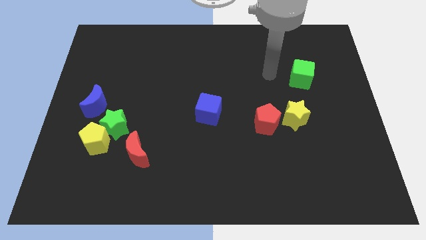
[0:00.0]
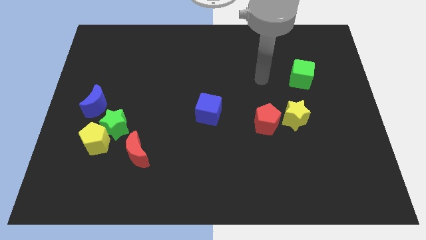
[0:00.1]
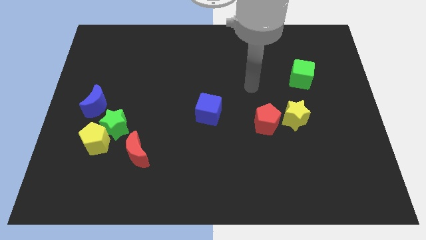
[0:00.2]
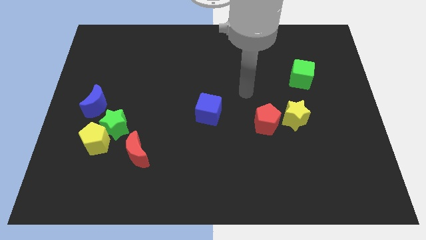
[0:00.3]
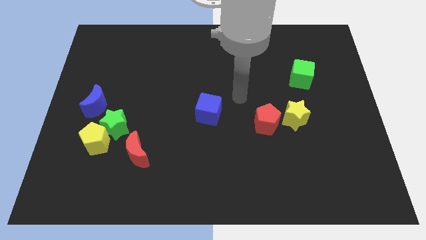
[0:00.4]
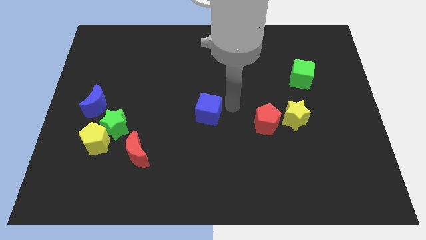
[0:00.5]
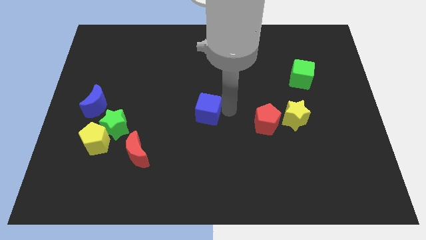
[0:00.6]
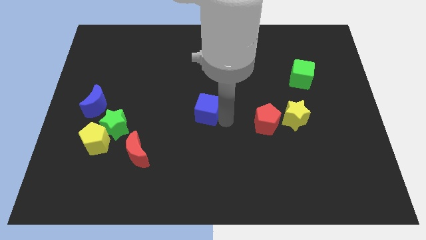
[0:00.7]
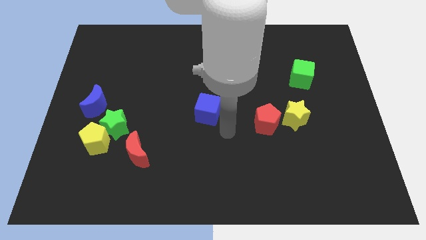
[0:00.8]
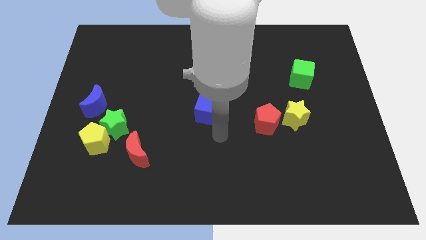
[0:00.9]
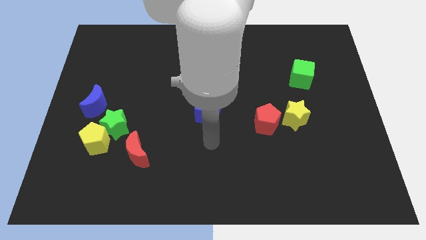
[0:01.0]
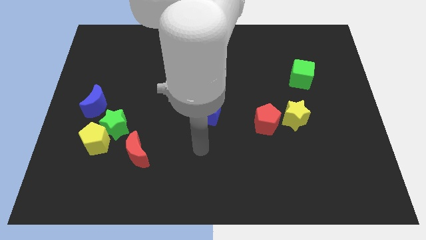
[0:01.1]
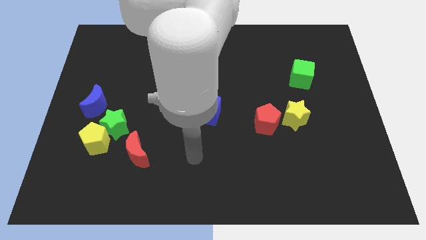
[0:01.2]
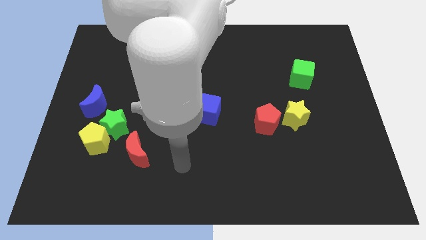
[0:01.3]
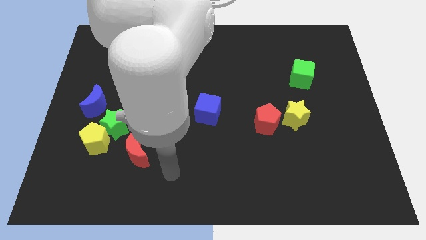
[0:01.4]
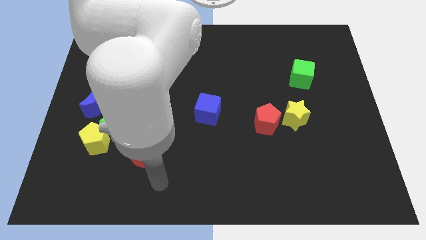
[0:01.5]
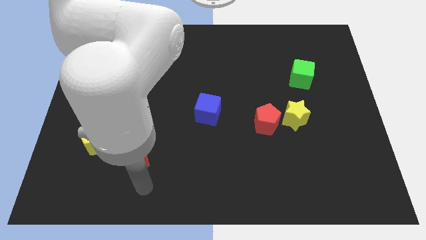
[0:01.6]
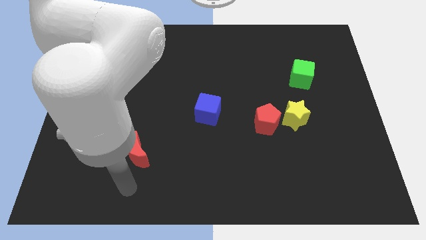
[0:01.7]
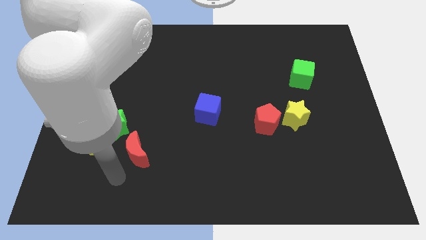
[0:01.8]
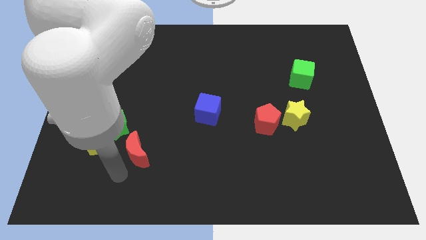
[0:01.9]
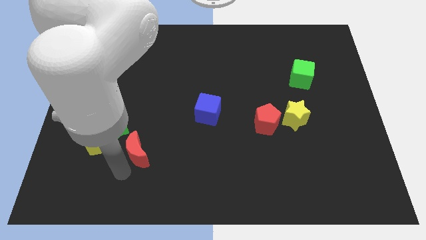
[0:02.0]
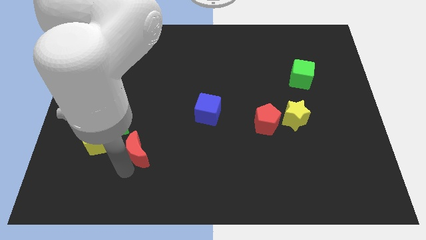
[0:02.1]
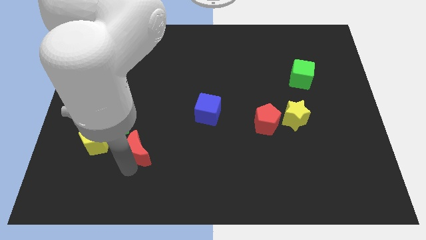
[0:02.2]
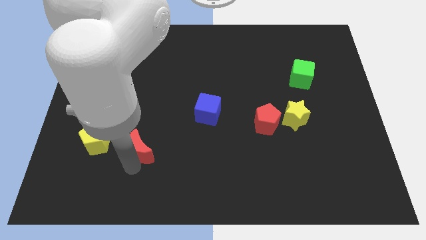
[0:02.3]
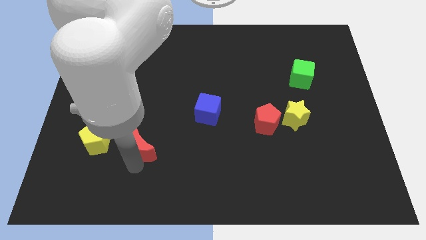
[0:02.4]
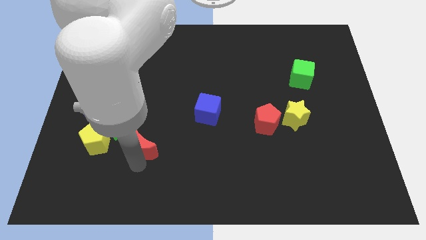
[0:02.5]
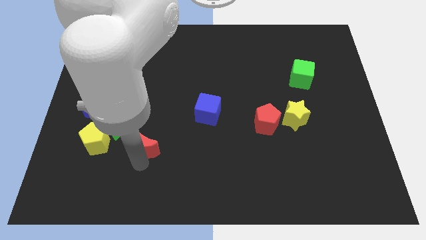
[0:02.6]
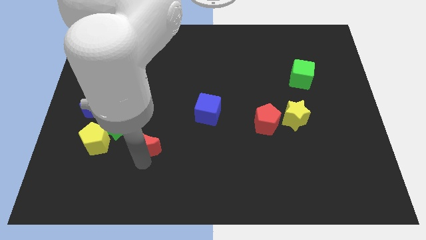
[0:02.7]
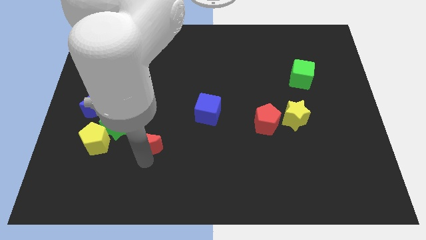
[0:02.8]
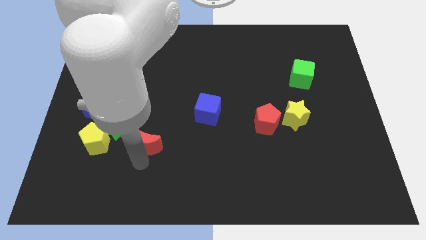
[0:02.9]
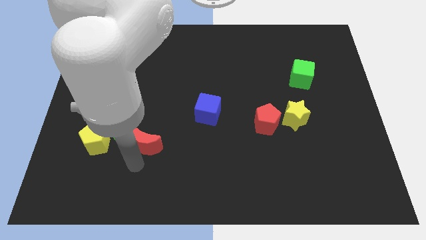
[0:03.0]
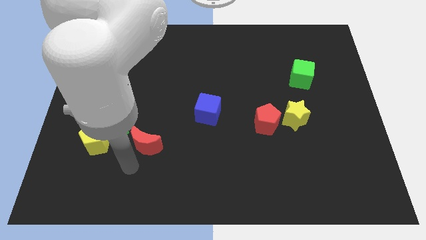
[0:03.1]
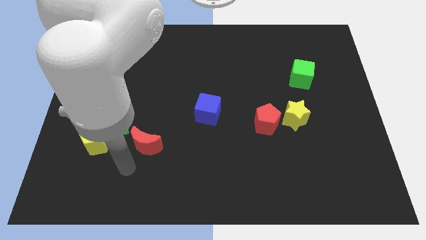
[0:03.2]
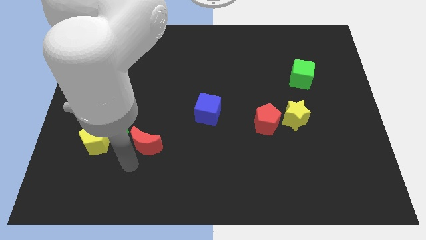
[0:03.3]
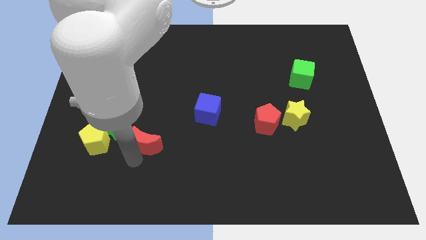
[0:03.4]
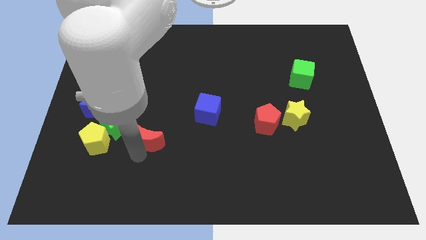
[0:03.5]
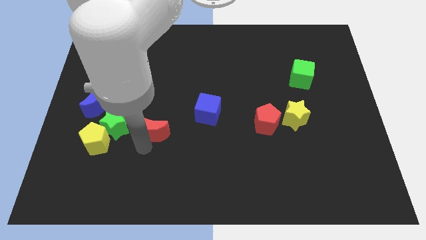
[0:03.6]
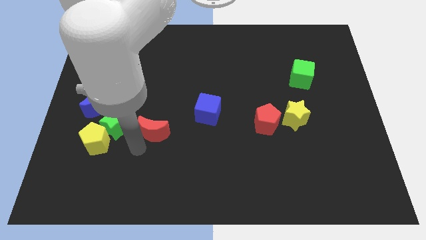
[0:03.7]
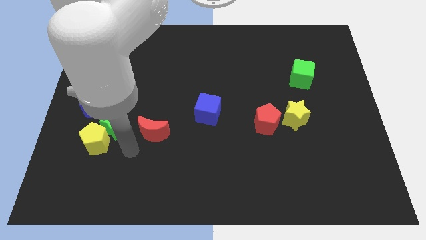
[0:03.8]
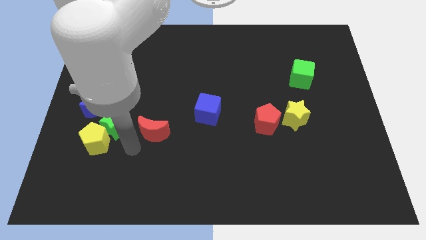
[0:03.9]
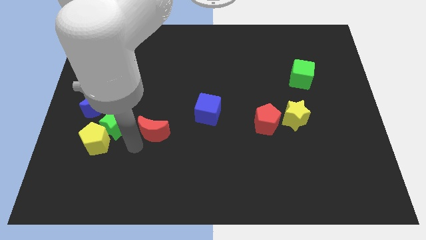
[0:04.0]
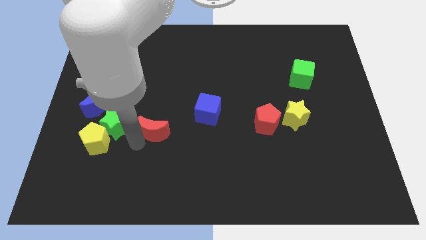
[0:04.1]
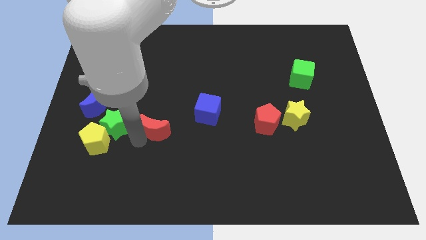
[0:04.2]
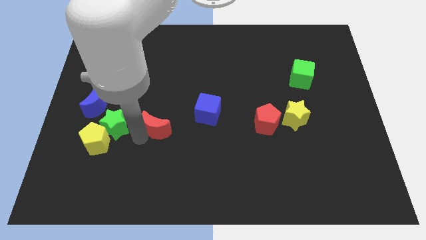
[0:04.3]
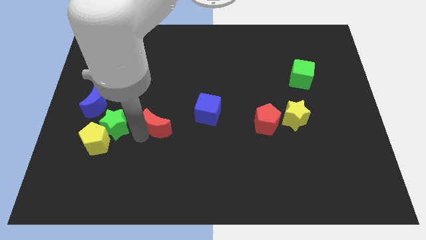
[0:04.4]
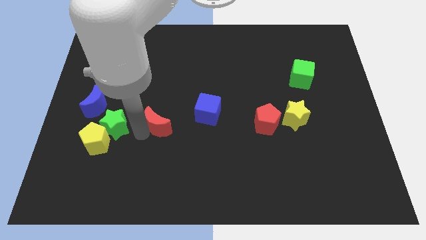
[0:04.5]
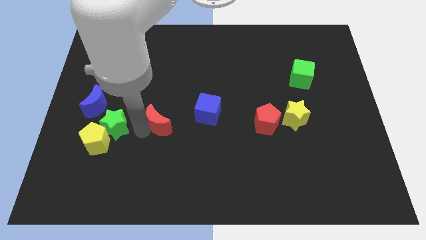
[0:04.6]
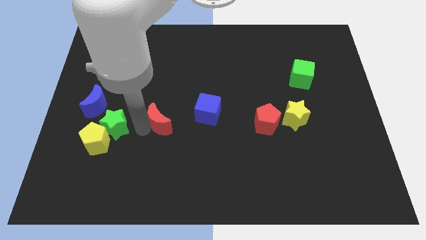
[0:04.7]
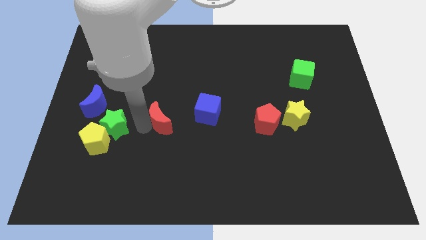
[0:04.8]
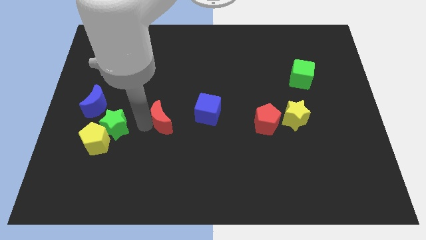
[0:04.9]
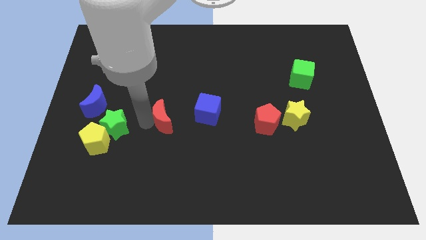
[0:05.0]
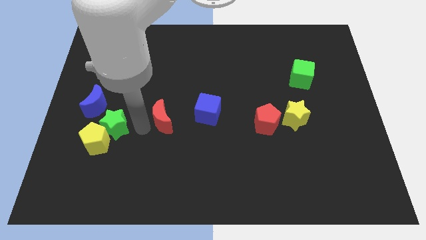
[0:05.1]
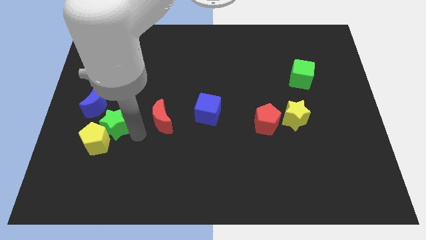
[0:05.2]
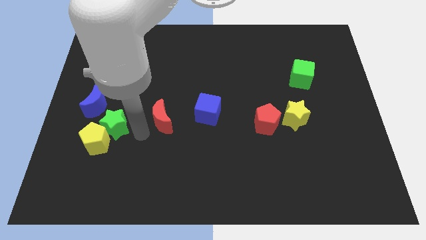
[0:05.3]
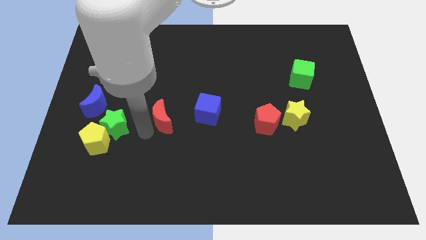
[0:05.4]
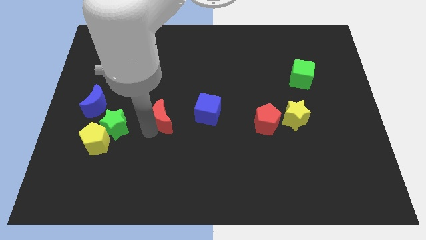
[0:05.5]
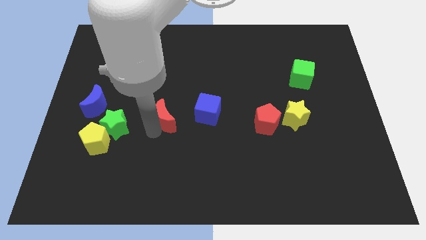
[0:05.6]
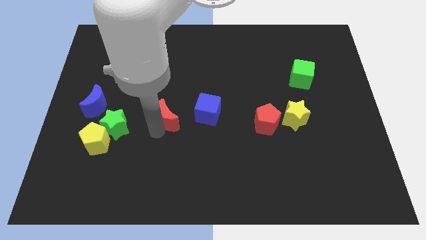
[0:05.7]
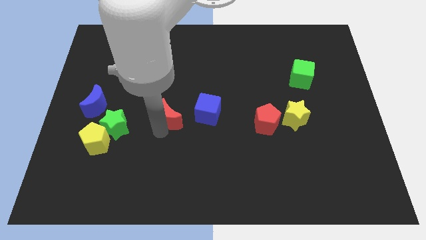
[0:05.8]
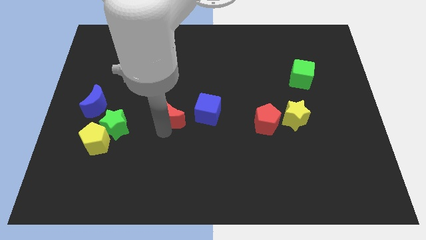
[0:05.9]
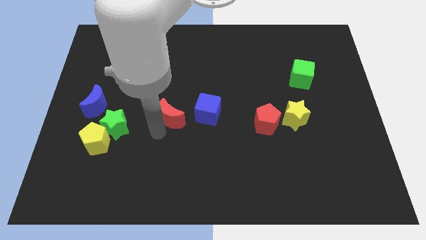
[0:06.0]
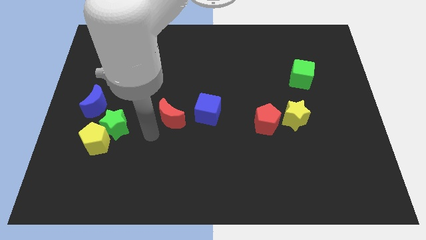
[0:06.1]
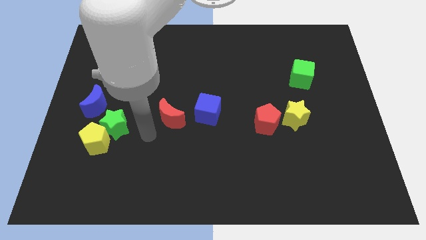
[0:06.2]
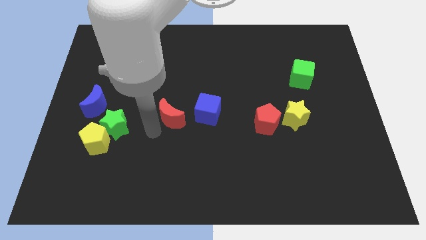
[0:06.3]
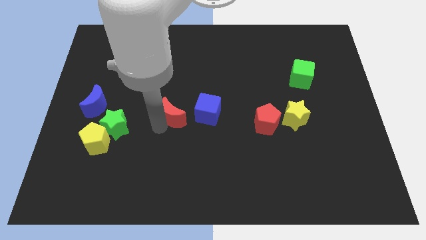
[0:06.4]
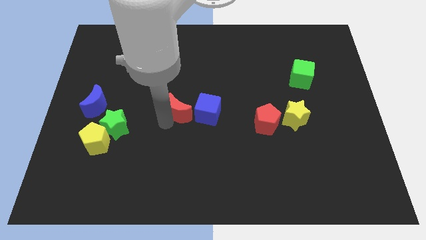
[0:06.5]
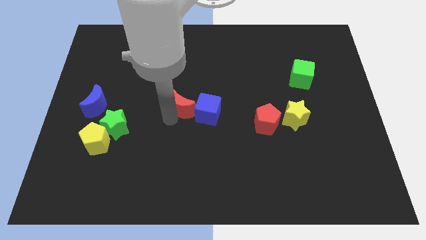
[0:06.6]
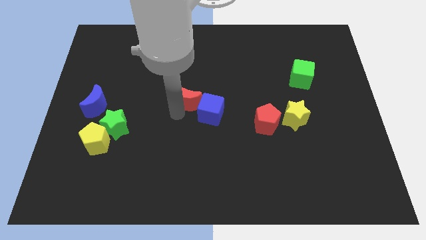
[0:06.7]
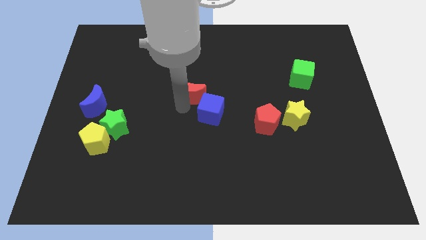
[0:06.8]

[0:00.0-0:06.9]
put the red moon above the blue cube

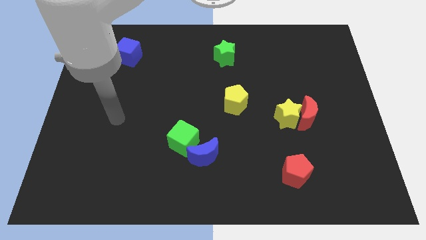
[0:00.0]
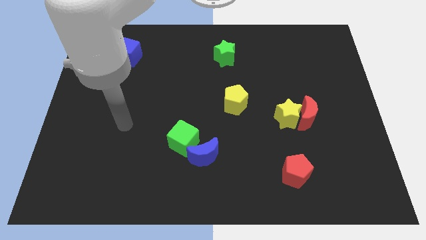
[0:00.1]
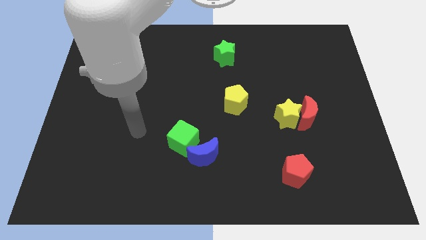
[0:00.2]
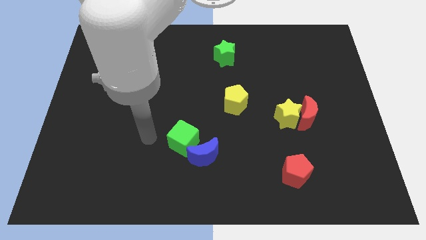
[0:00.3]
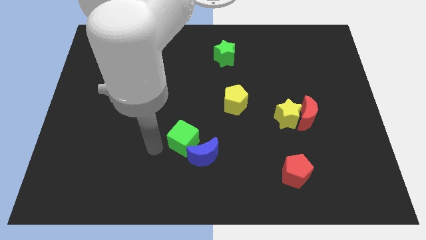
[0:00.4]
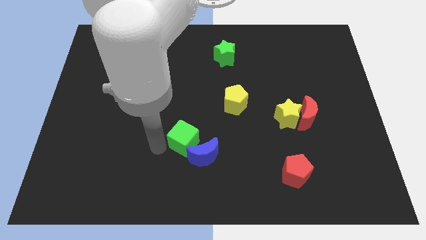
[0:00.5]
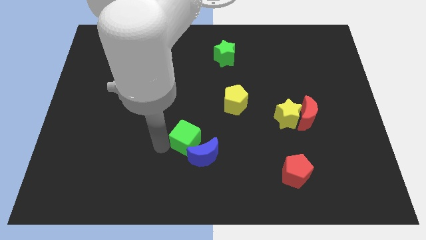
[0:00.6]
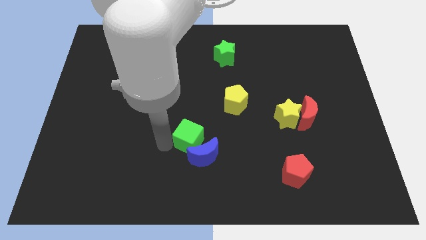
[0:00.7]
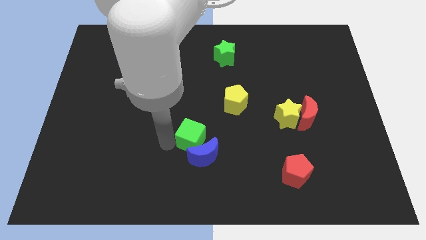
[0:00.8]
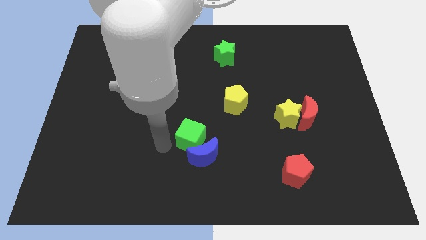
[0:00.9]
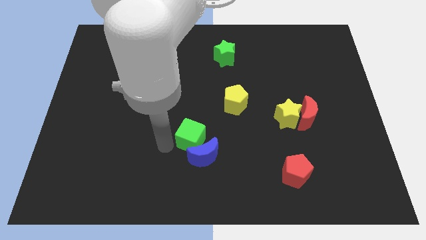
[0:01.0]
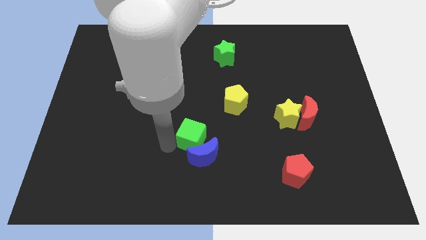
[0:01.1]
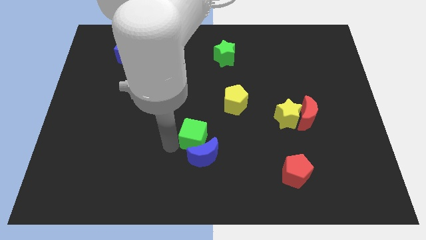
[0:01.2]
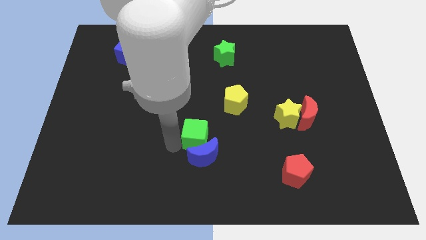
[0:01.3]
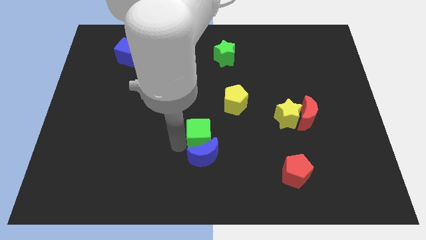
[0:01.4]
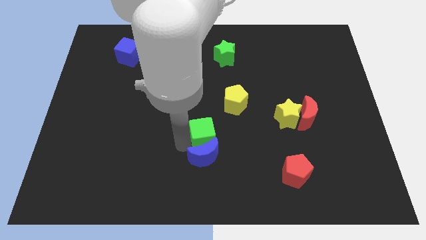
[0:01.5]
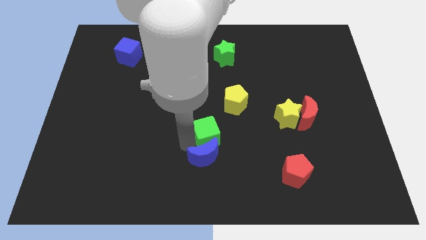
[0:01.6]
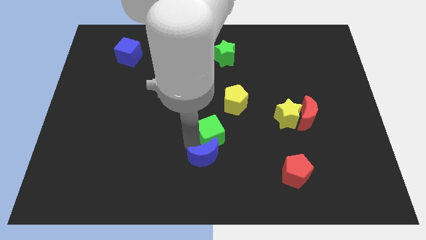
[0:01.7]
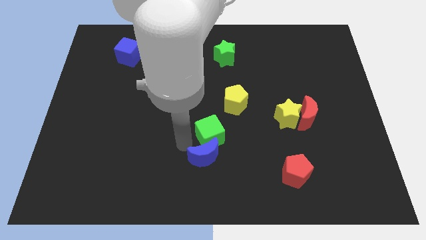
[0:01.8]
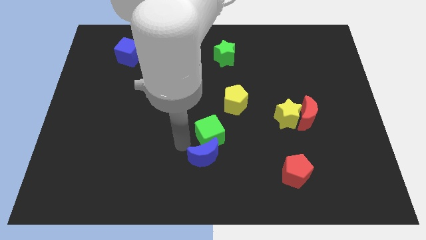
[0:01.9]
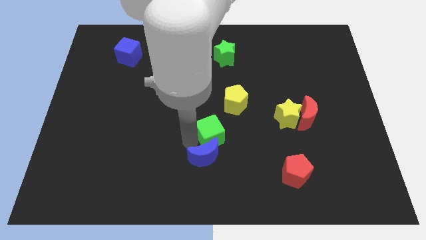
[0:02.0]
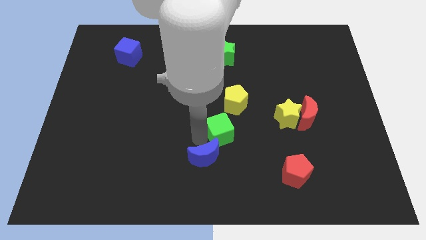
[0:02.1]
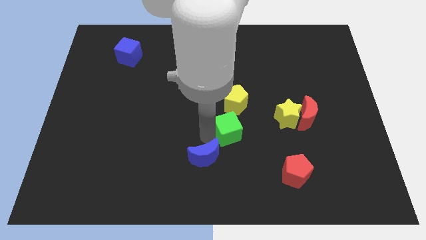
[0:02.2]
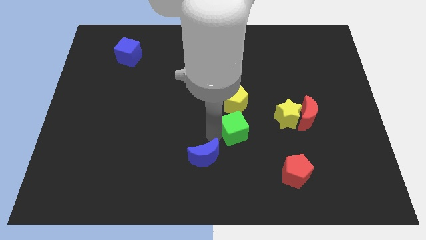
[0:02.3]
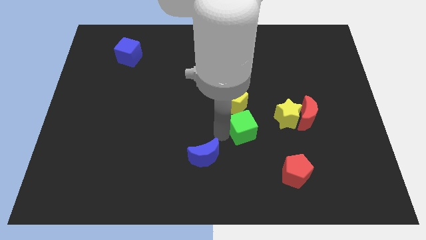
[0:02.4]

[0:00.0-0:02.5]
slide the green cube to the bottom right of the yellow pentagon
